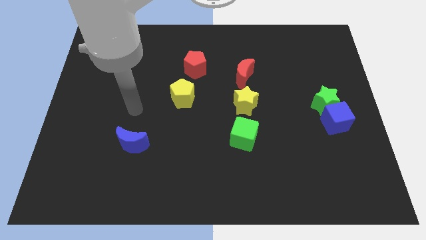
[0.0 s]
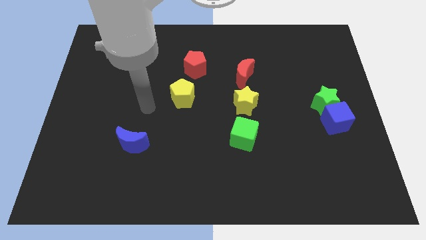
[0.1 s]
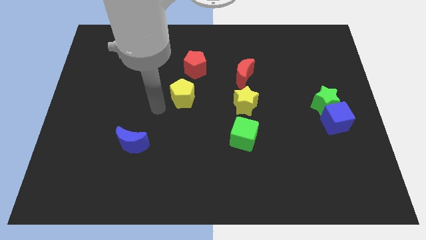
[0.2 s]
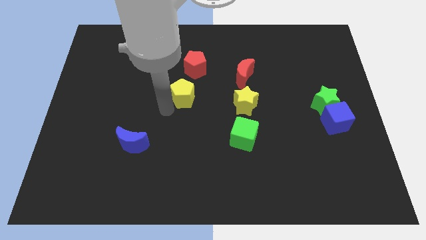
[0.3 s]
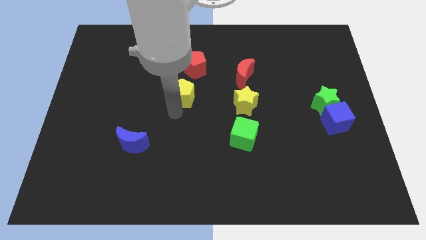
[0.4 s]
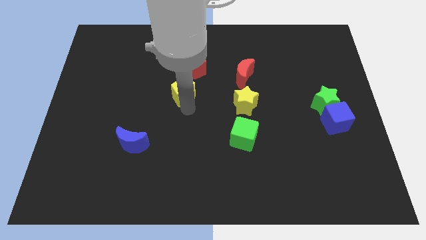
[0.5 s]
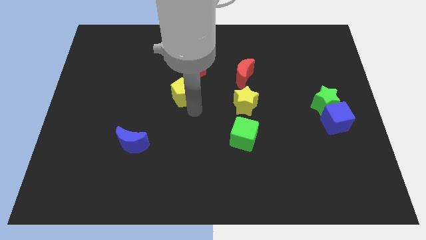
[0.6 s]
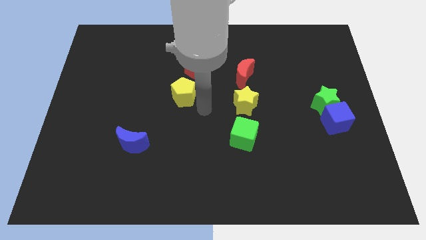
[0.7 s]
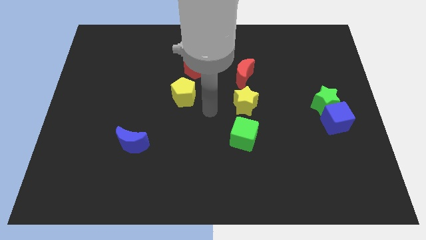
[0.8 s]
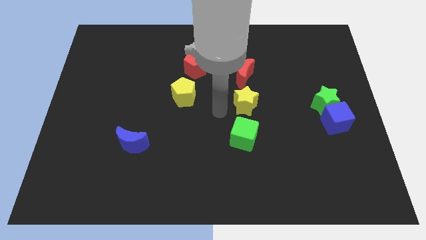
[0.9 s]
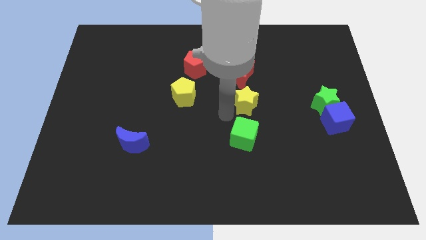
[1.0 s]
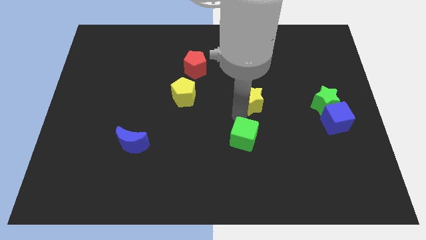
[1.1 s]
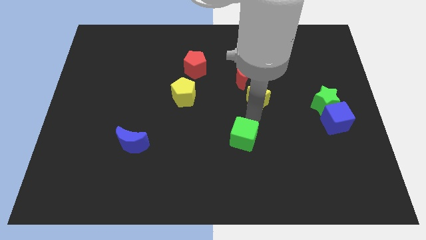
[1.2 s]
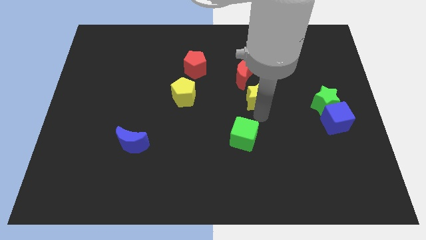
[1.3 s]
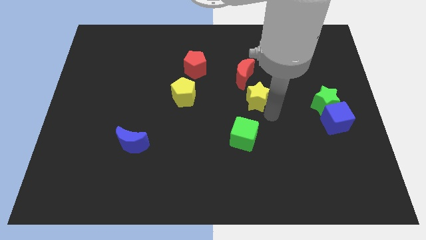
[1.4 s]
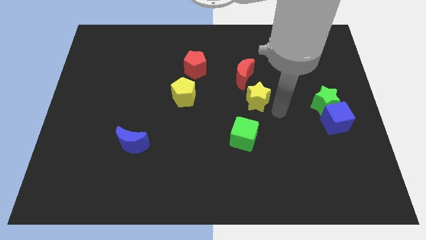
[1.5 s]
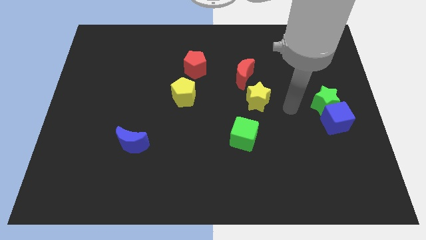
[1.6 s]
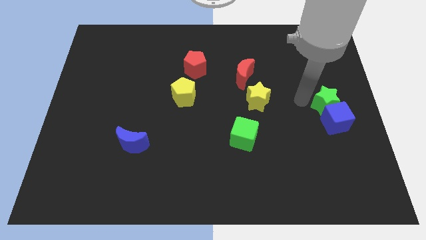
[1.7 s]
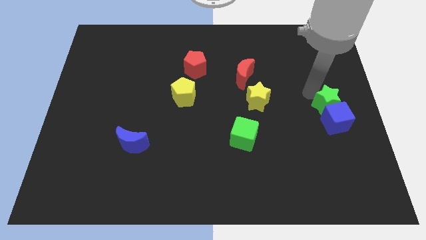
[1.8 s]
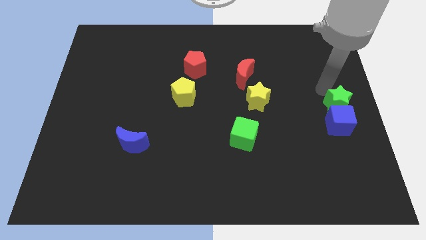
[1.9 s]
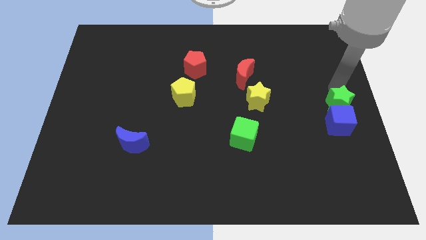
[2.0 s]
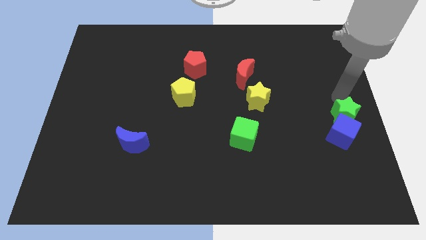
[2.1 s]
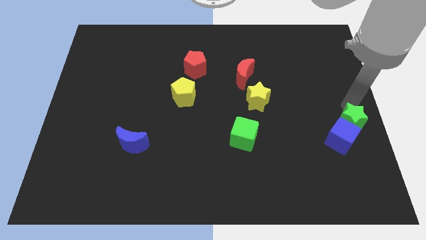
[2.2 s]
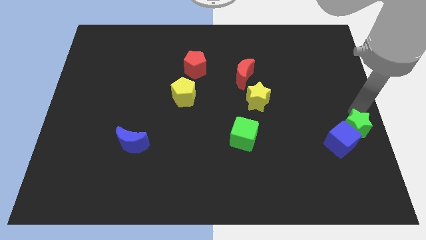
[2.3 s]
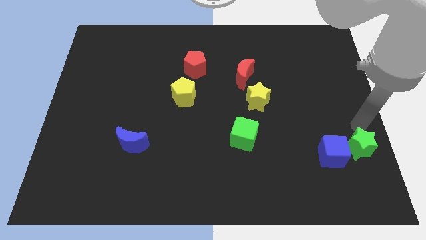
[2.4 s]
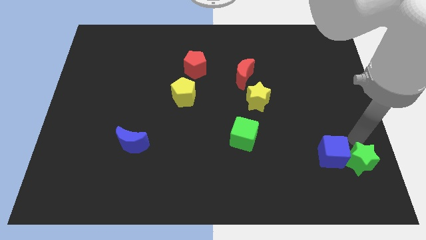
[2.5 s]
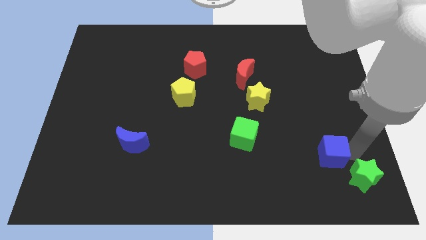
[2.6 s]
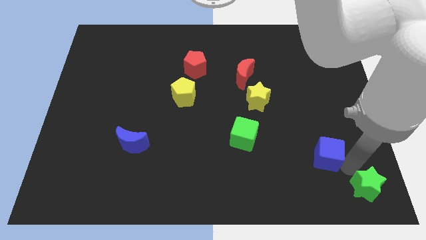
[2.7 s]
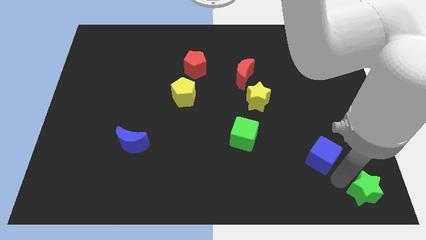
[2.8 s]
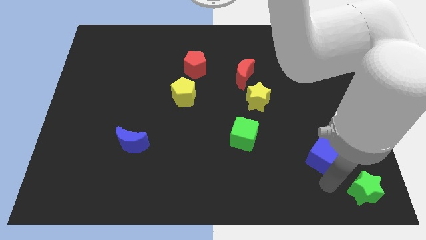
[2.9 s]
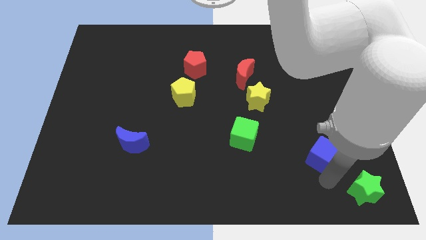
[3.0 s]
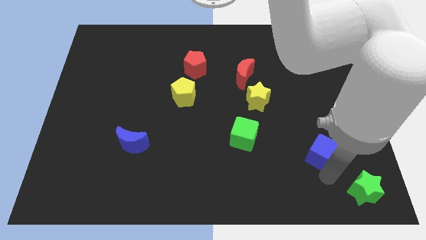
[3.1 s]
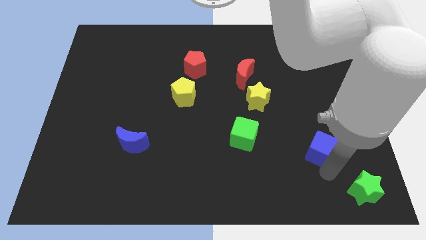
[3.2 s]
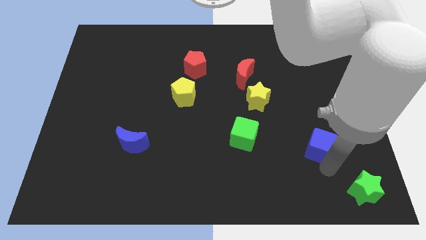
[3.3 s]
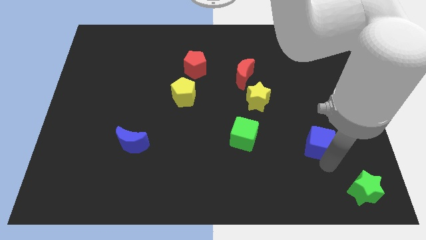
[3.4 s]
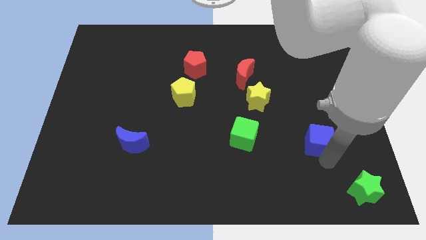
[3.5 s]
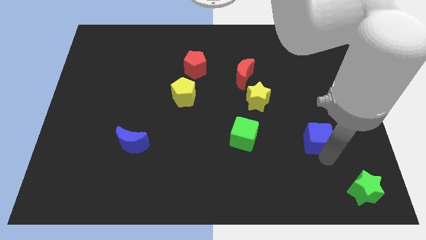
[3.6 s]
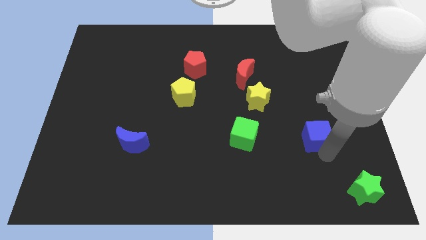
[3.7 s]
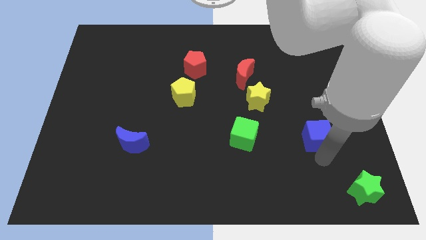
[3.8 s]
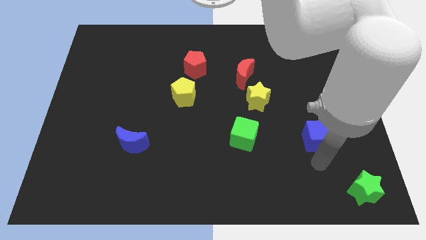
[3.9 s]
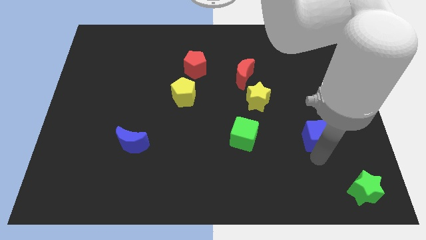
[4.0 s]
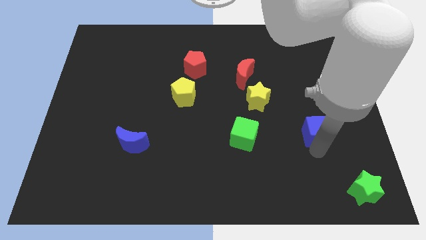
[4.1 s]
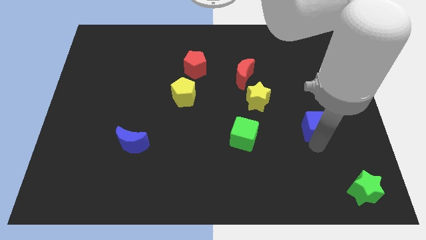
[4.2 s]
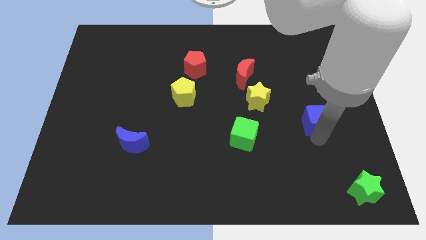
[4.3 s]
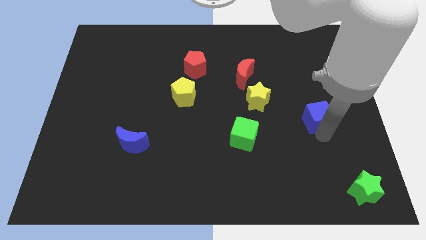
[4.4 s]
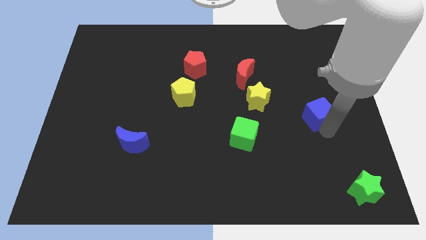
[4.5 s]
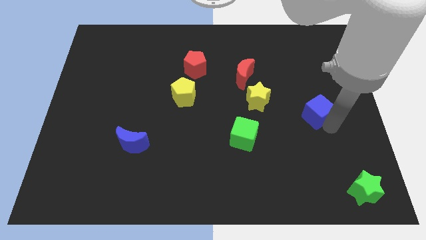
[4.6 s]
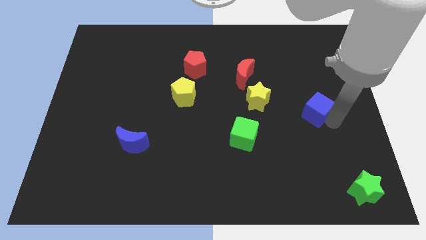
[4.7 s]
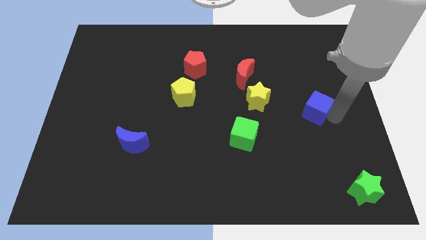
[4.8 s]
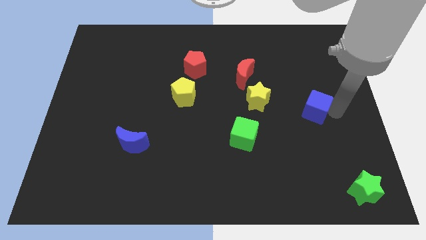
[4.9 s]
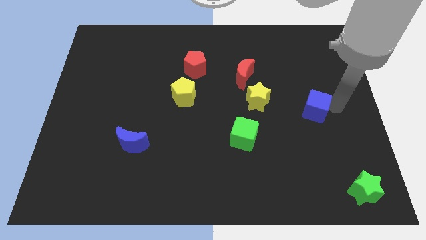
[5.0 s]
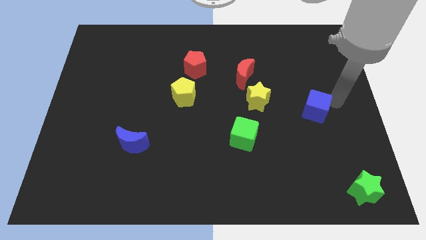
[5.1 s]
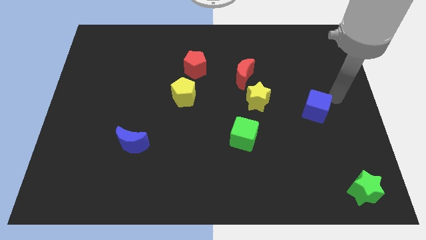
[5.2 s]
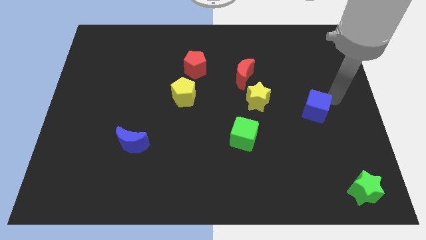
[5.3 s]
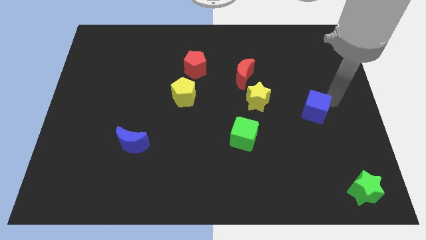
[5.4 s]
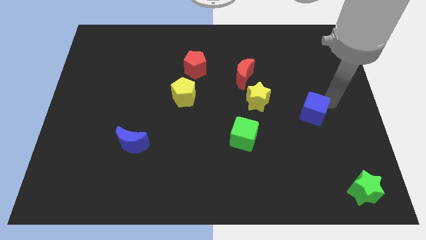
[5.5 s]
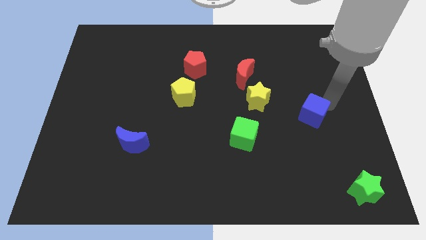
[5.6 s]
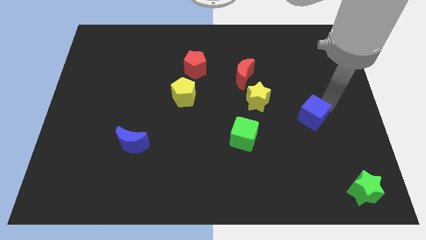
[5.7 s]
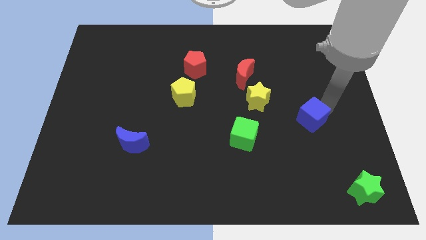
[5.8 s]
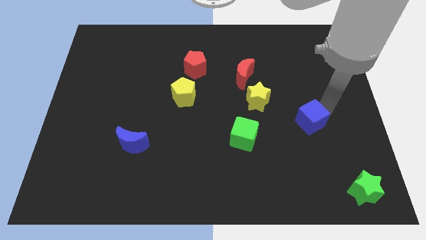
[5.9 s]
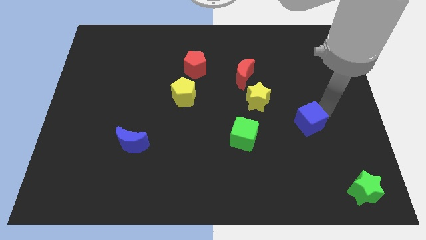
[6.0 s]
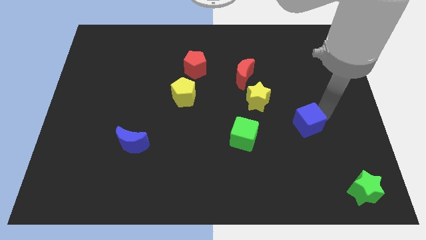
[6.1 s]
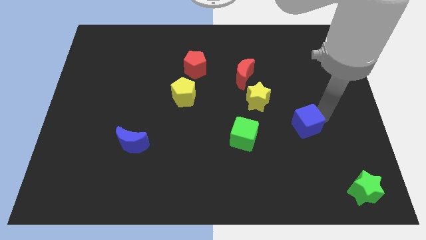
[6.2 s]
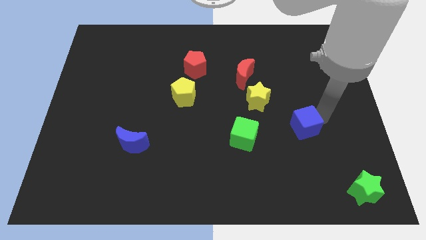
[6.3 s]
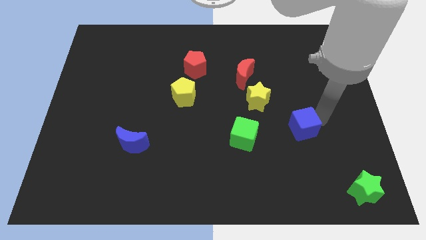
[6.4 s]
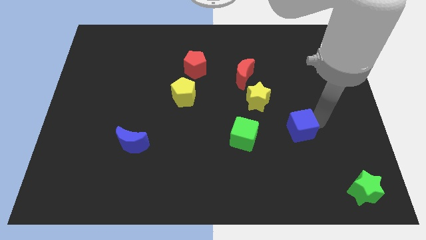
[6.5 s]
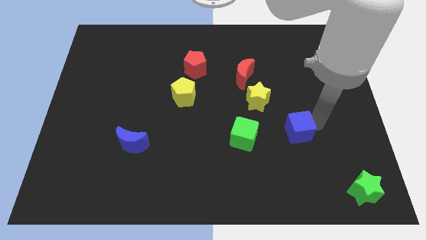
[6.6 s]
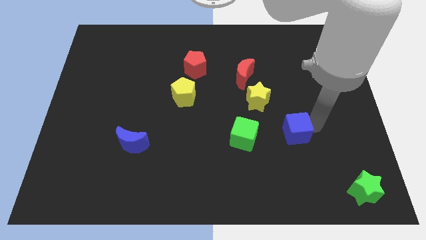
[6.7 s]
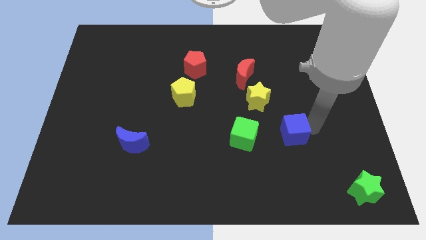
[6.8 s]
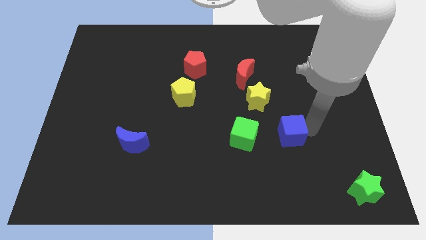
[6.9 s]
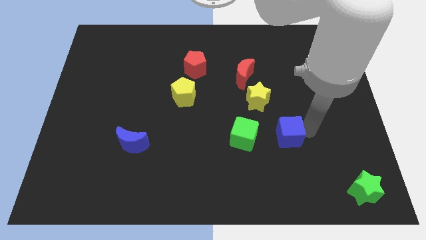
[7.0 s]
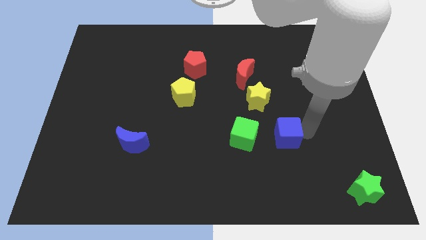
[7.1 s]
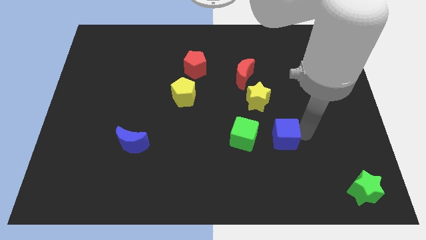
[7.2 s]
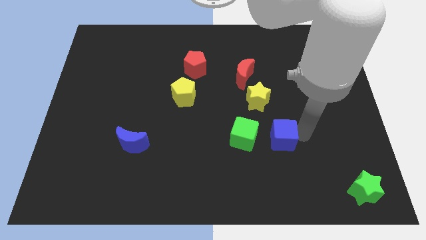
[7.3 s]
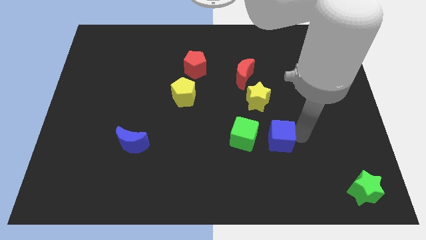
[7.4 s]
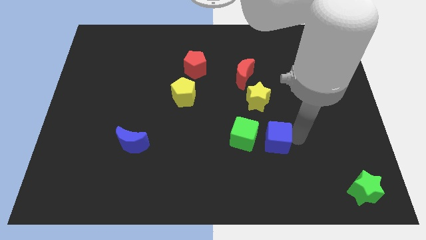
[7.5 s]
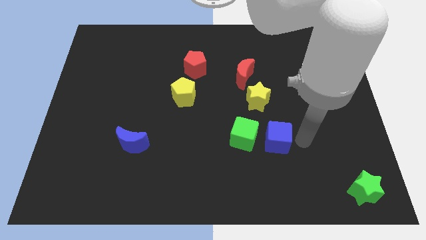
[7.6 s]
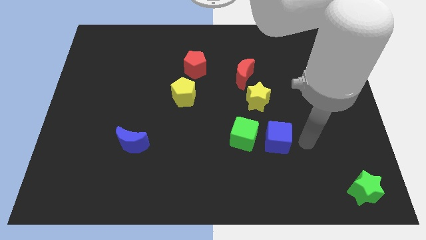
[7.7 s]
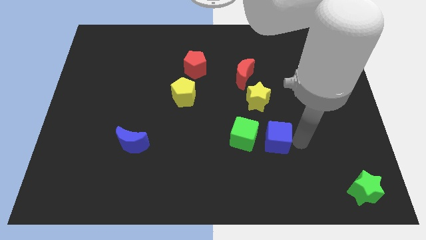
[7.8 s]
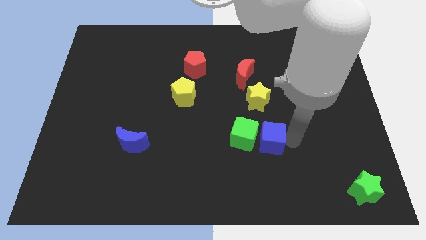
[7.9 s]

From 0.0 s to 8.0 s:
put the blue cube next to the green cube
